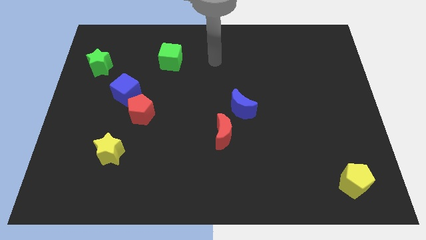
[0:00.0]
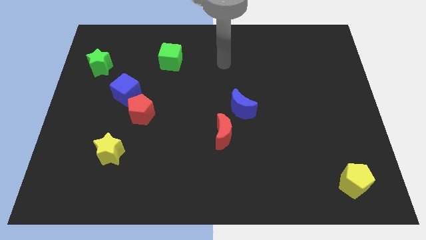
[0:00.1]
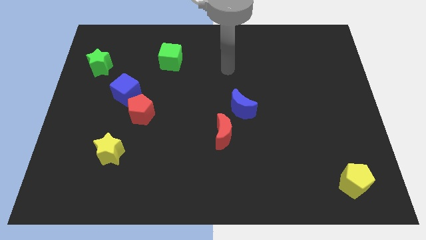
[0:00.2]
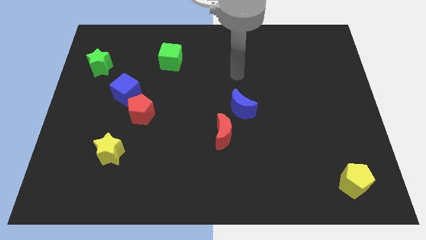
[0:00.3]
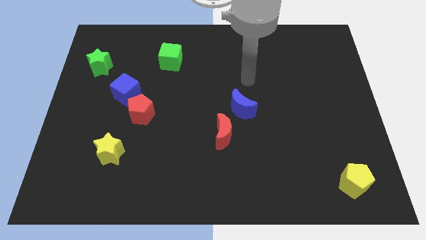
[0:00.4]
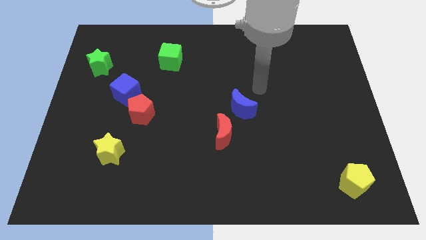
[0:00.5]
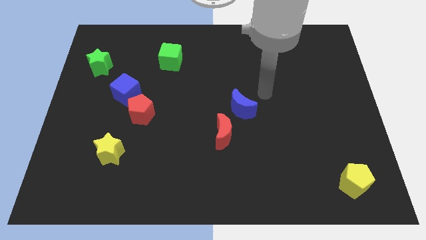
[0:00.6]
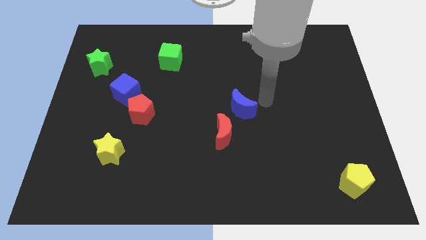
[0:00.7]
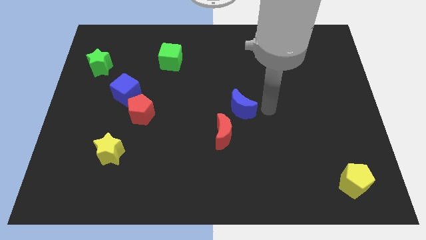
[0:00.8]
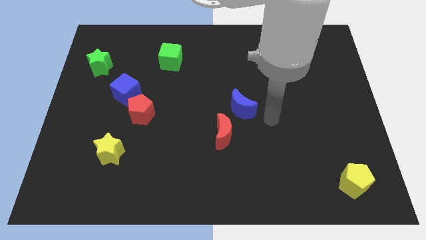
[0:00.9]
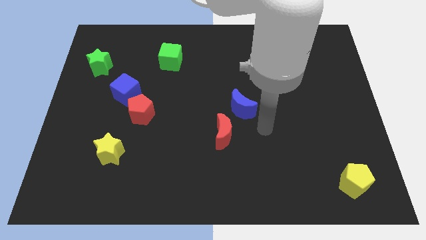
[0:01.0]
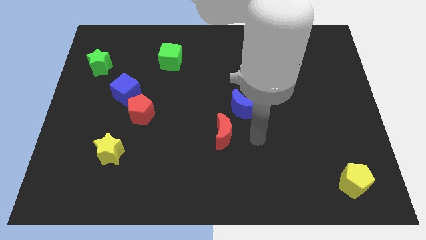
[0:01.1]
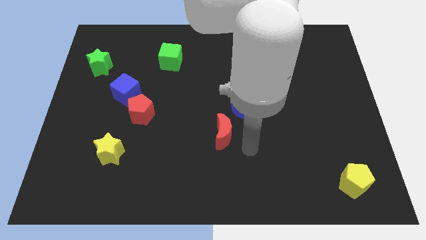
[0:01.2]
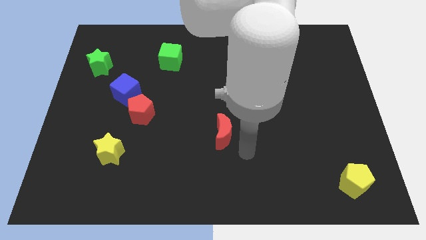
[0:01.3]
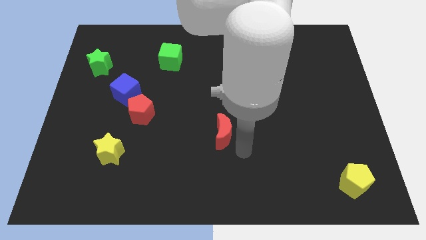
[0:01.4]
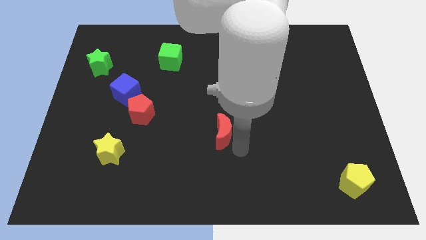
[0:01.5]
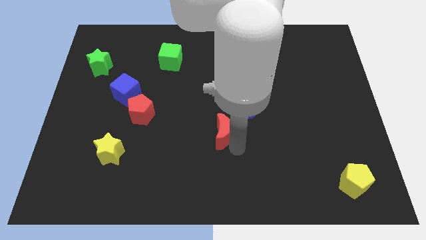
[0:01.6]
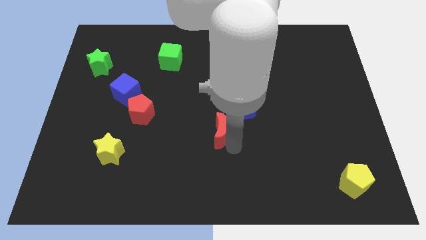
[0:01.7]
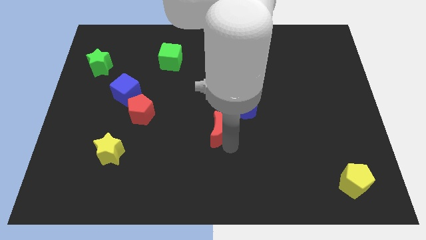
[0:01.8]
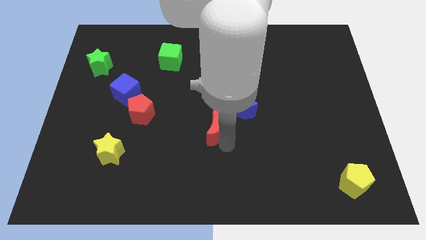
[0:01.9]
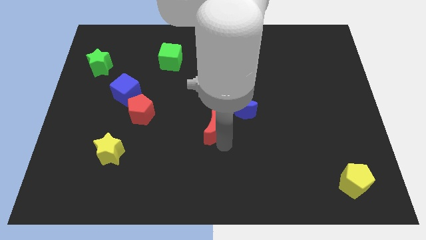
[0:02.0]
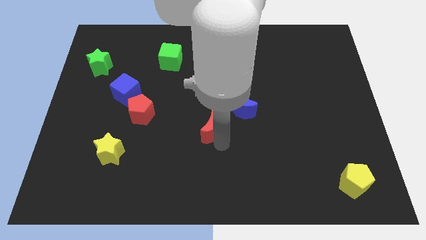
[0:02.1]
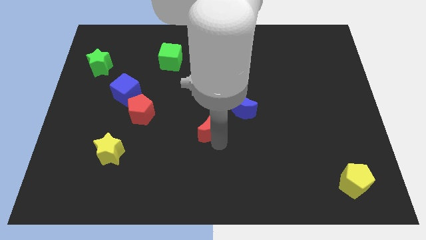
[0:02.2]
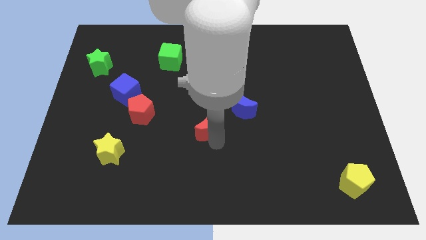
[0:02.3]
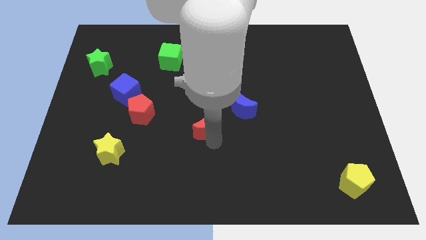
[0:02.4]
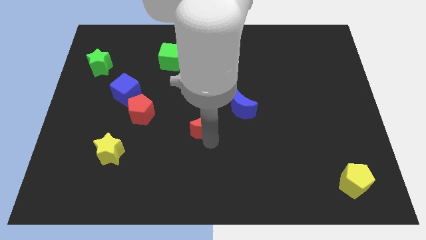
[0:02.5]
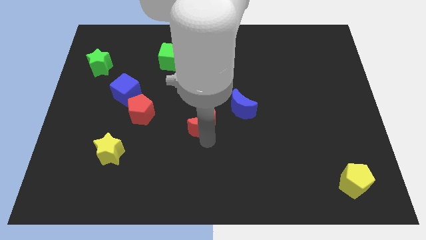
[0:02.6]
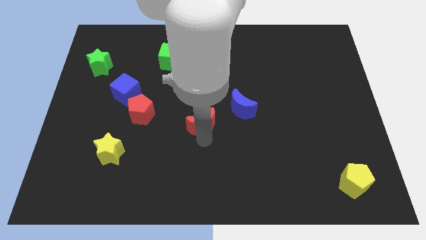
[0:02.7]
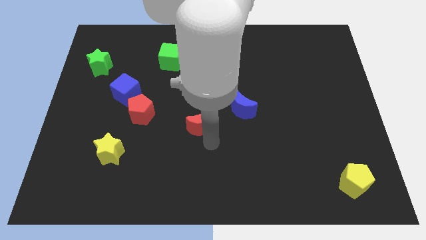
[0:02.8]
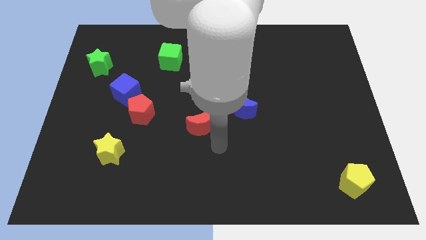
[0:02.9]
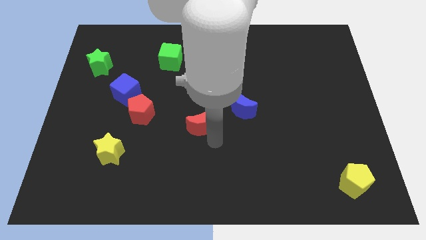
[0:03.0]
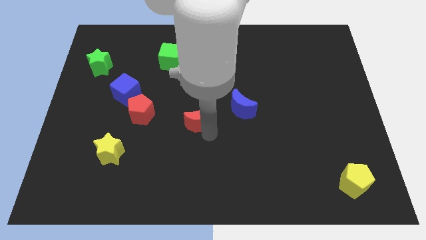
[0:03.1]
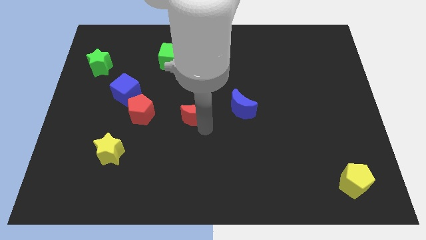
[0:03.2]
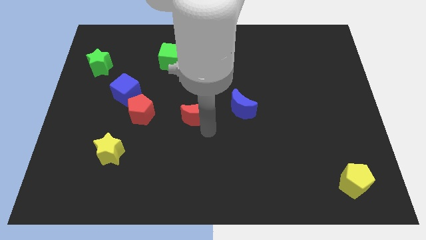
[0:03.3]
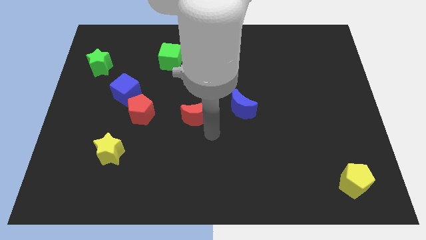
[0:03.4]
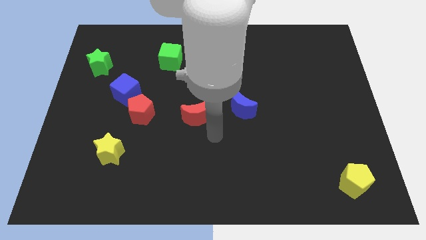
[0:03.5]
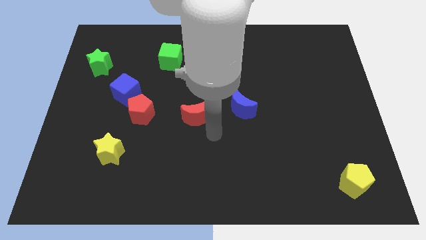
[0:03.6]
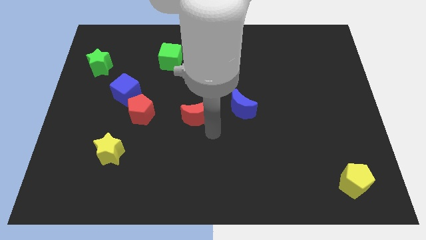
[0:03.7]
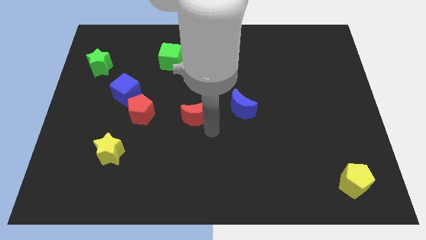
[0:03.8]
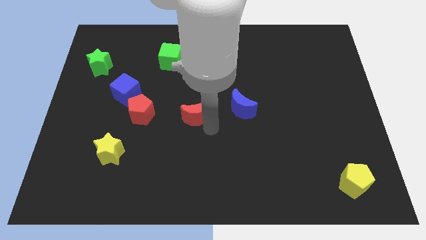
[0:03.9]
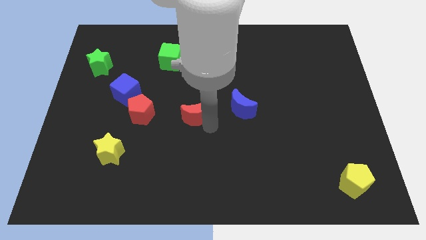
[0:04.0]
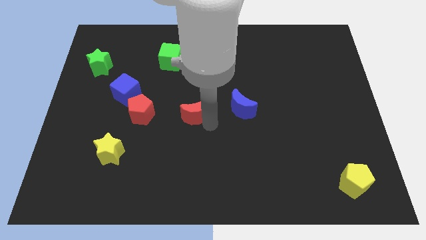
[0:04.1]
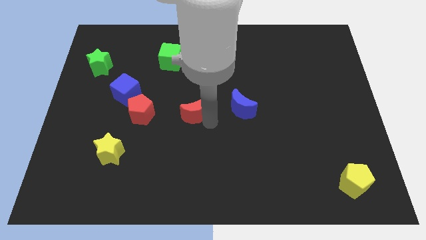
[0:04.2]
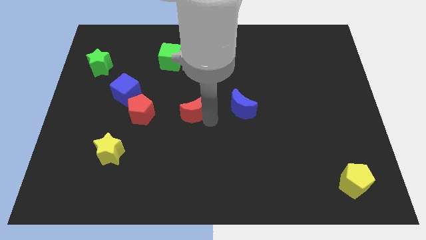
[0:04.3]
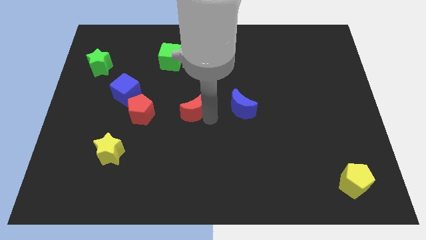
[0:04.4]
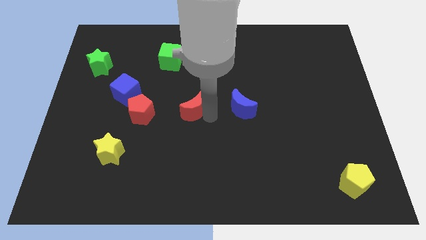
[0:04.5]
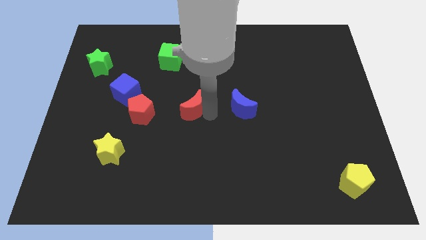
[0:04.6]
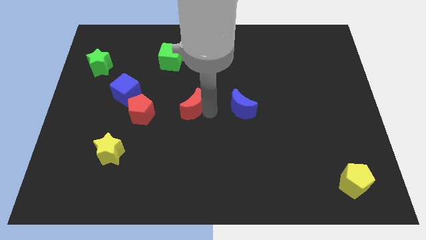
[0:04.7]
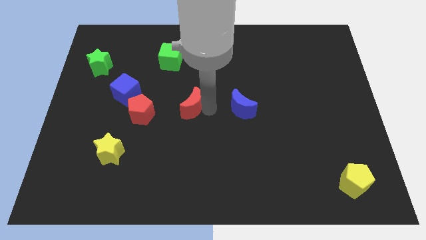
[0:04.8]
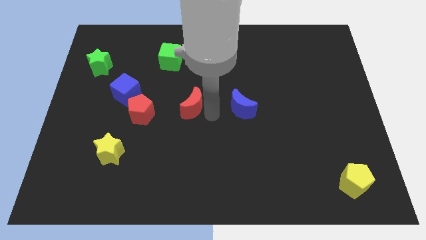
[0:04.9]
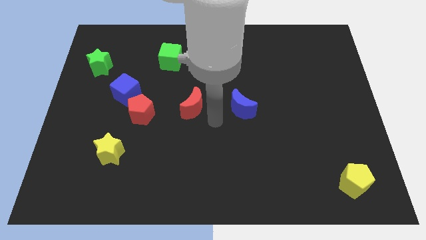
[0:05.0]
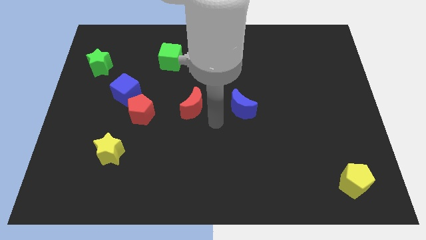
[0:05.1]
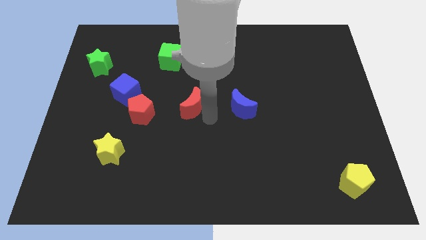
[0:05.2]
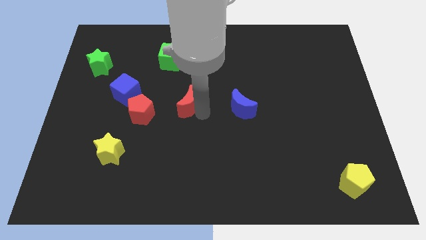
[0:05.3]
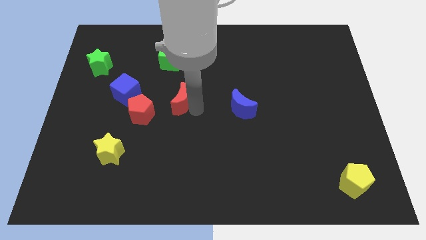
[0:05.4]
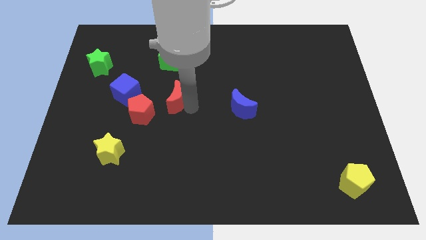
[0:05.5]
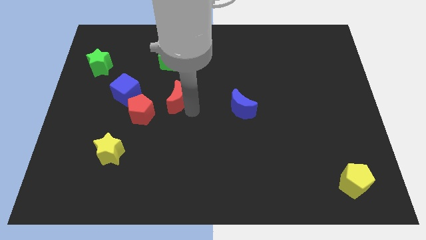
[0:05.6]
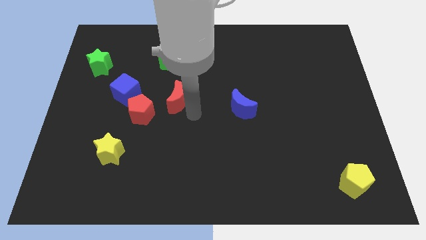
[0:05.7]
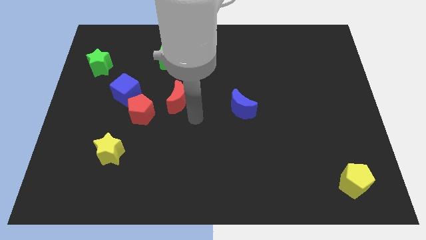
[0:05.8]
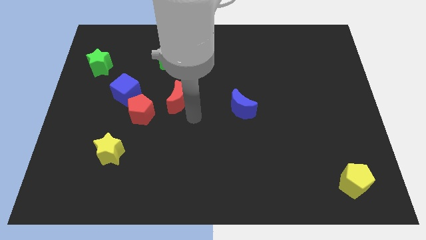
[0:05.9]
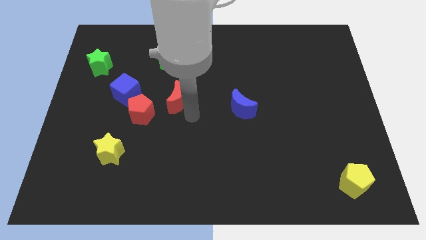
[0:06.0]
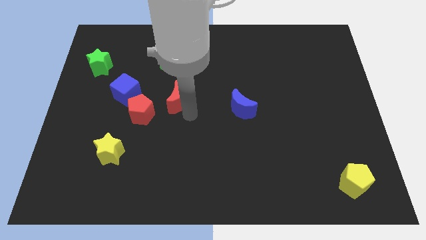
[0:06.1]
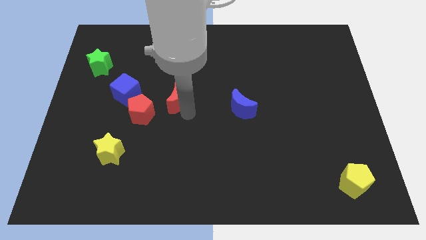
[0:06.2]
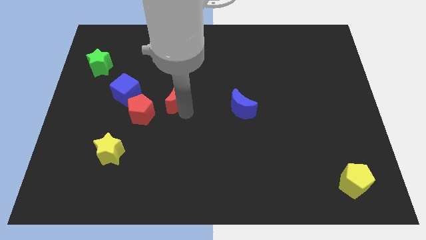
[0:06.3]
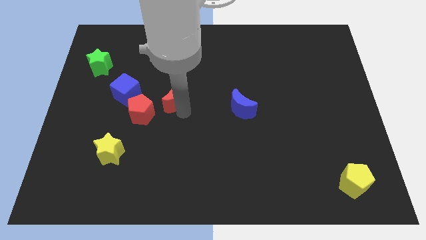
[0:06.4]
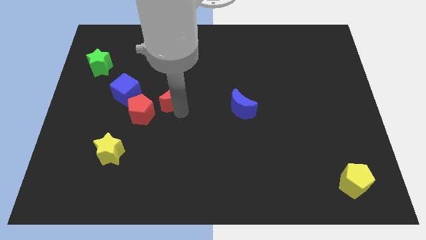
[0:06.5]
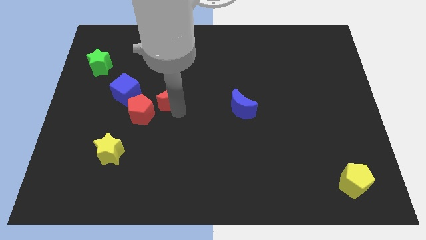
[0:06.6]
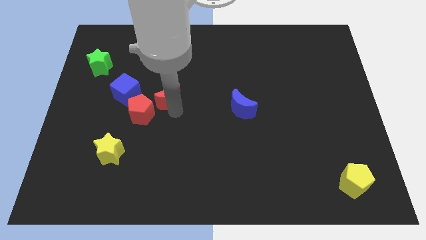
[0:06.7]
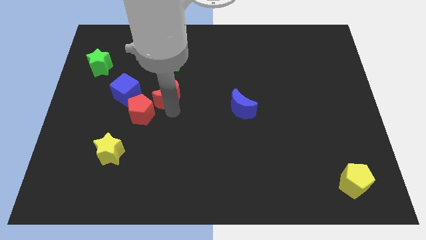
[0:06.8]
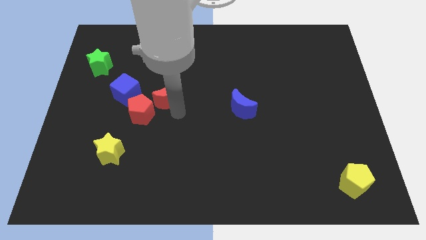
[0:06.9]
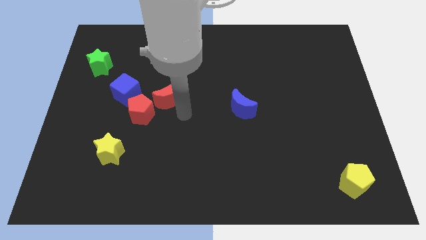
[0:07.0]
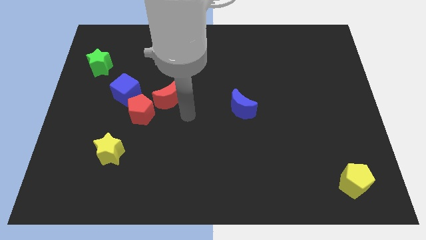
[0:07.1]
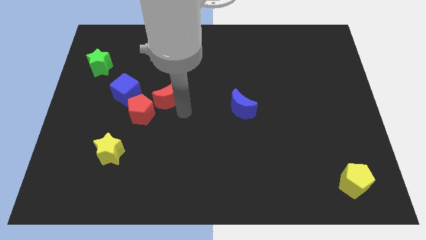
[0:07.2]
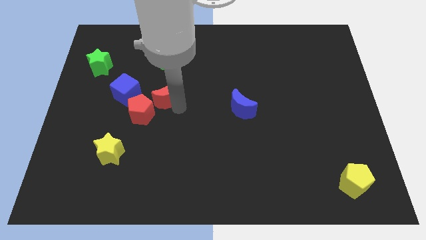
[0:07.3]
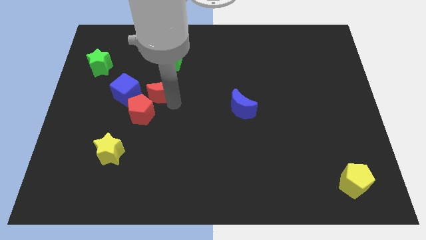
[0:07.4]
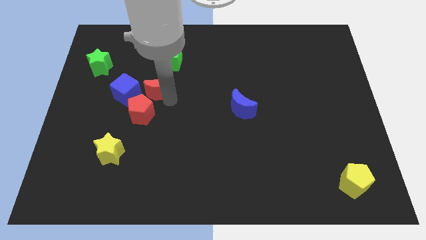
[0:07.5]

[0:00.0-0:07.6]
push the red moon upwards and left

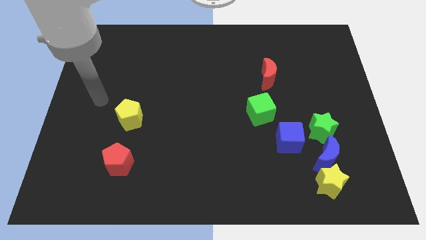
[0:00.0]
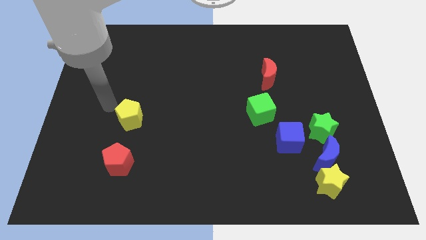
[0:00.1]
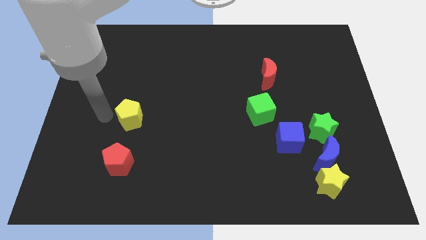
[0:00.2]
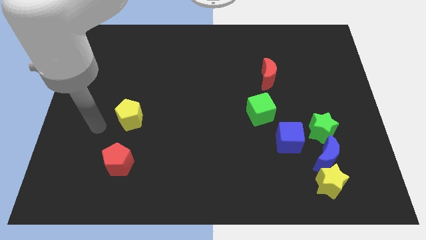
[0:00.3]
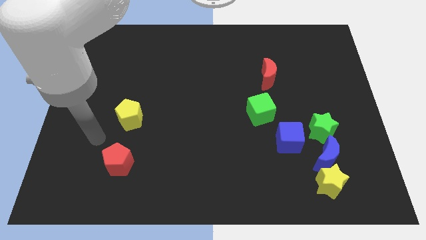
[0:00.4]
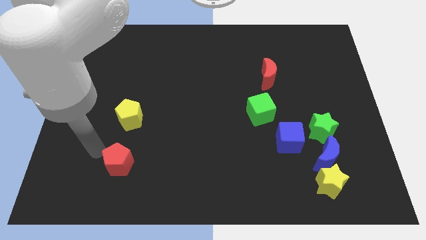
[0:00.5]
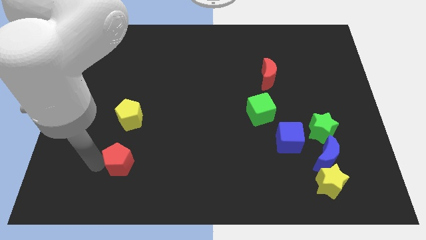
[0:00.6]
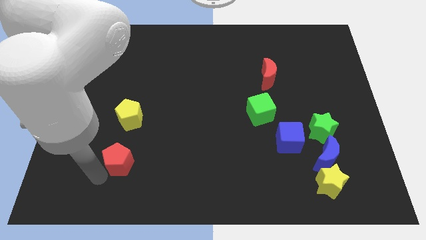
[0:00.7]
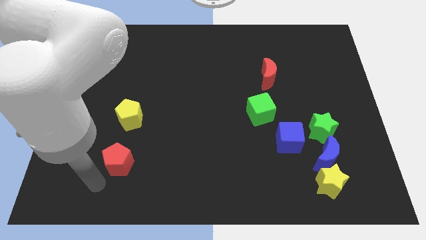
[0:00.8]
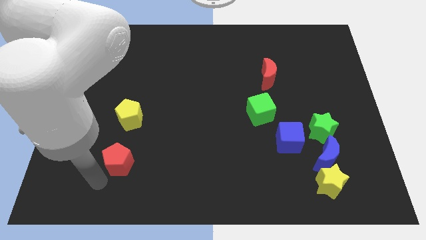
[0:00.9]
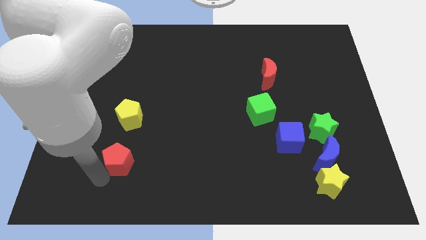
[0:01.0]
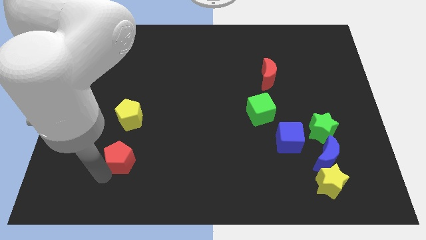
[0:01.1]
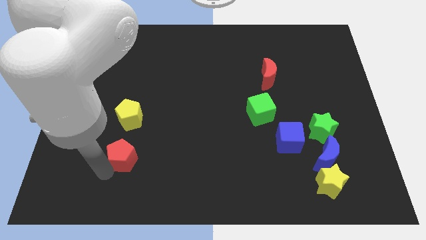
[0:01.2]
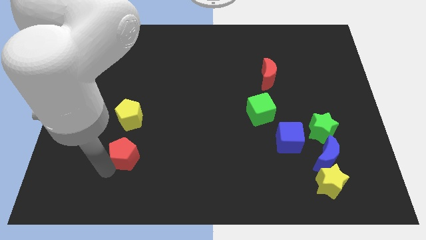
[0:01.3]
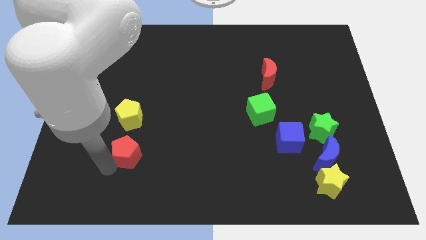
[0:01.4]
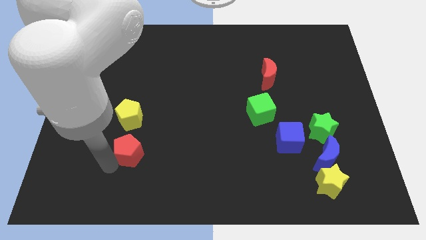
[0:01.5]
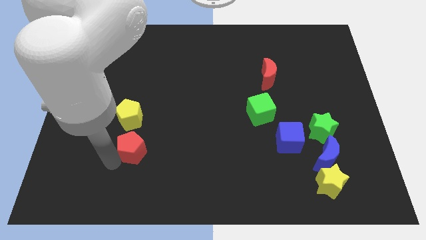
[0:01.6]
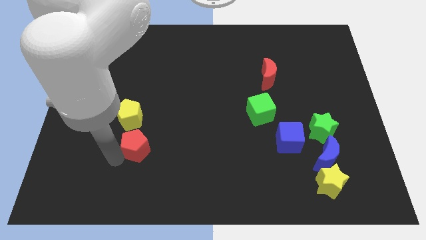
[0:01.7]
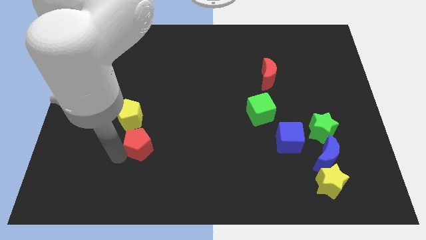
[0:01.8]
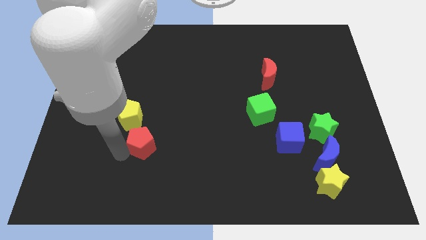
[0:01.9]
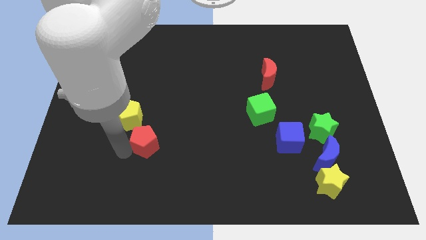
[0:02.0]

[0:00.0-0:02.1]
slightly slide the red pentagon upwards and to the right diagonally
